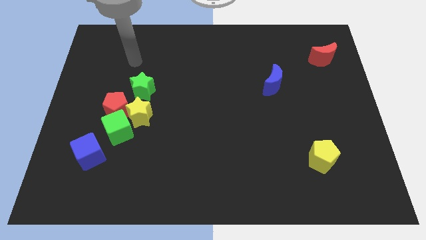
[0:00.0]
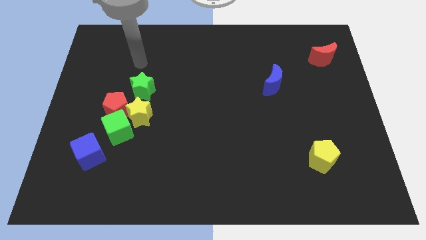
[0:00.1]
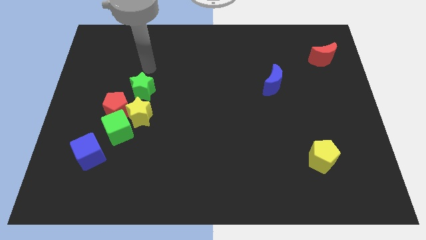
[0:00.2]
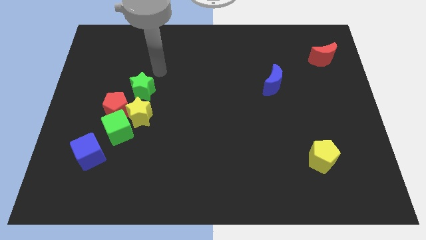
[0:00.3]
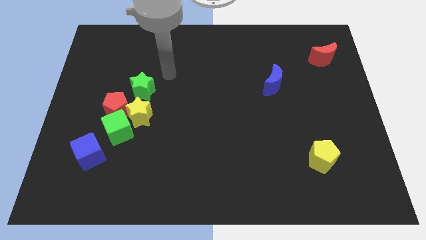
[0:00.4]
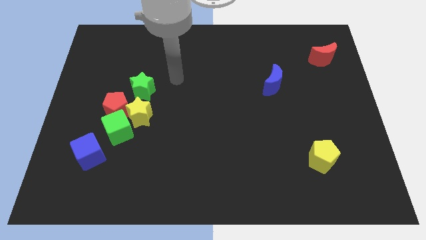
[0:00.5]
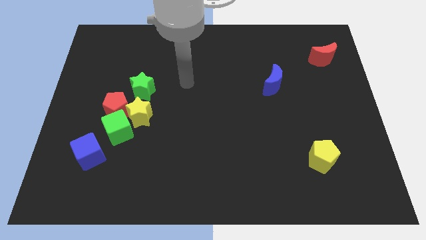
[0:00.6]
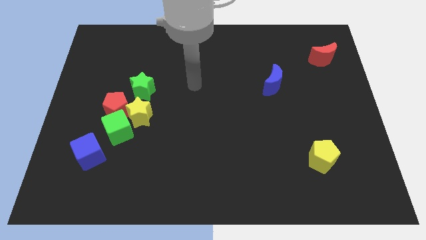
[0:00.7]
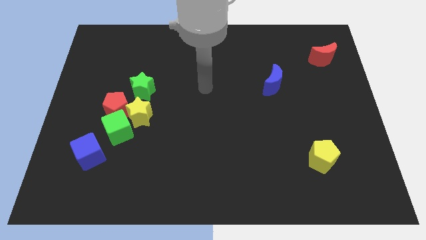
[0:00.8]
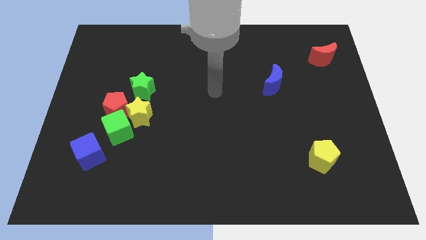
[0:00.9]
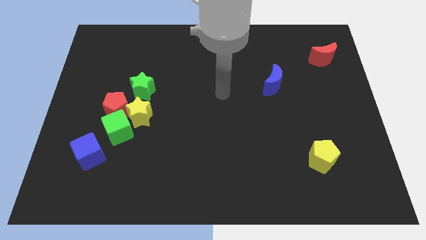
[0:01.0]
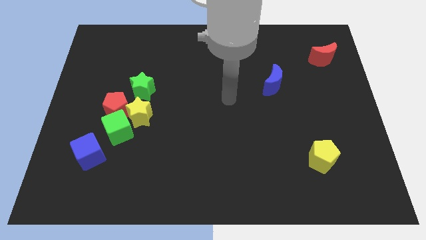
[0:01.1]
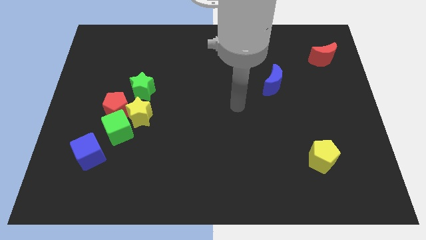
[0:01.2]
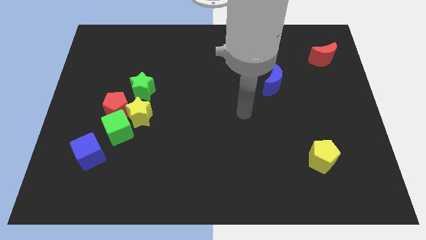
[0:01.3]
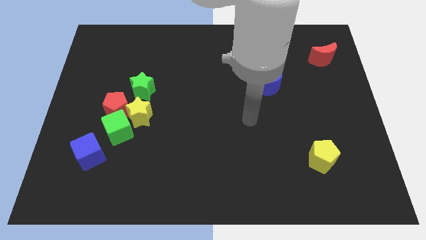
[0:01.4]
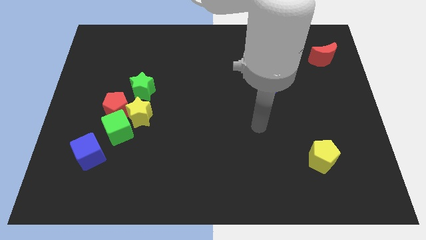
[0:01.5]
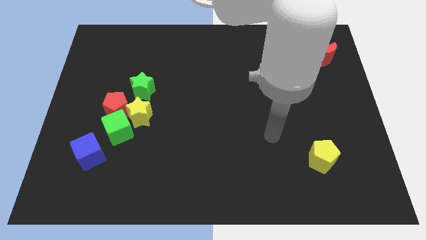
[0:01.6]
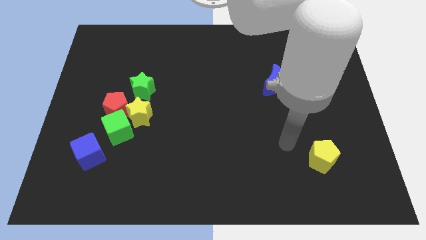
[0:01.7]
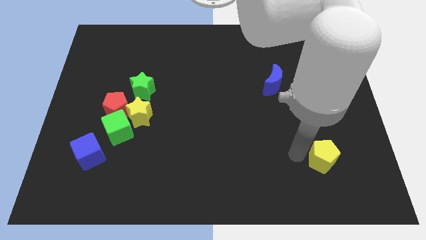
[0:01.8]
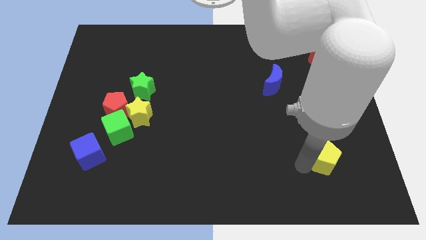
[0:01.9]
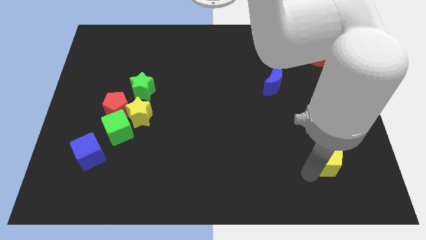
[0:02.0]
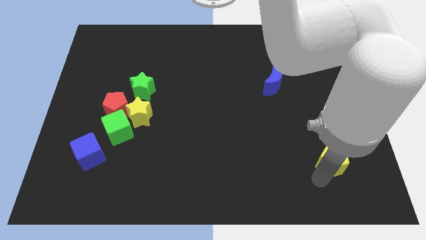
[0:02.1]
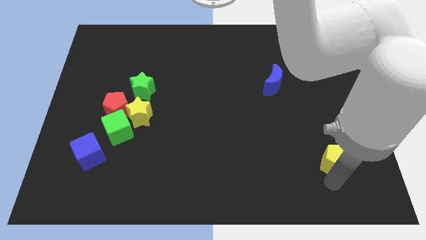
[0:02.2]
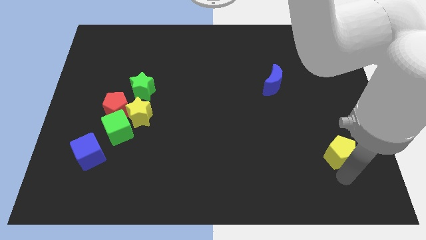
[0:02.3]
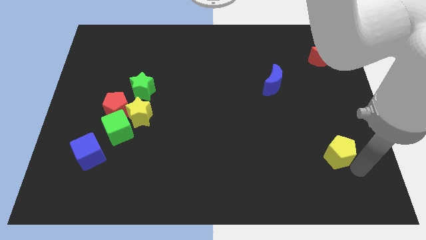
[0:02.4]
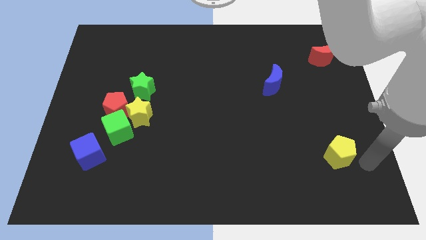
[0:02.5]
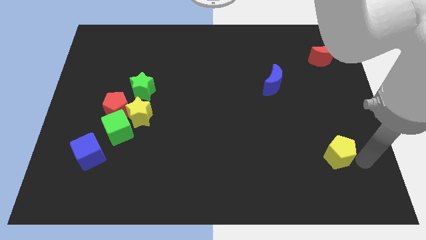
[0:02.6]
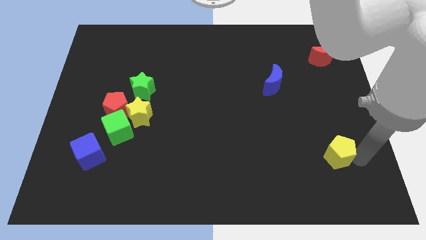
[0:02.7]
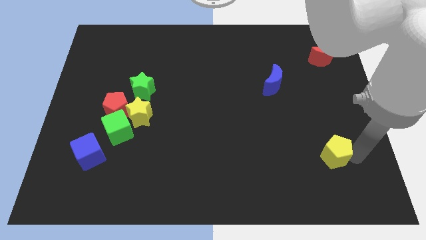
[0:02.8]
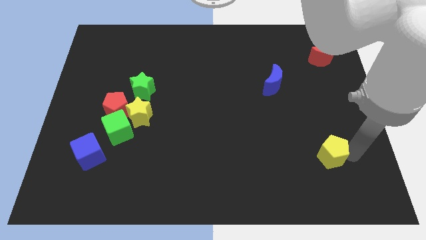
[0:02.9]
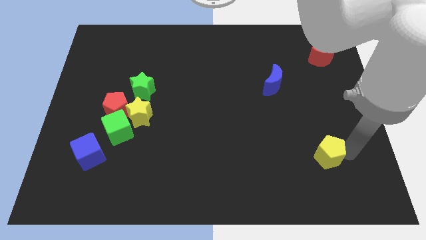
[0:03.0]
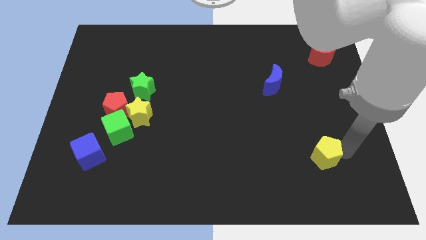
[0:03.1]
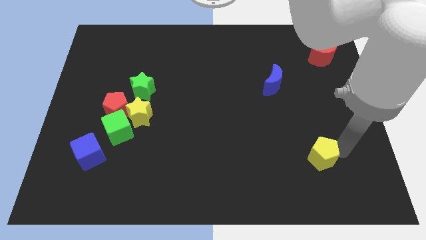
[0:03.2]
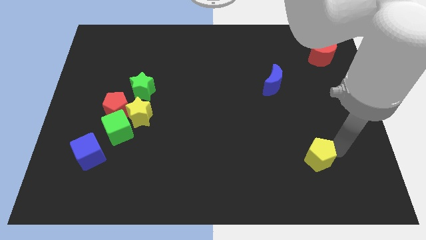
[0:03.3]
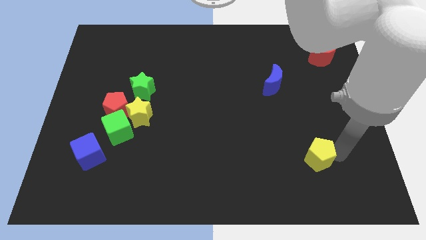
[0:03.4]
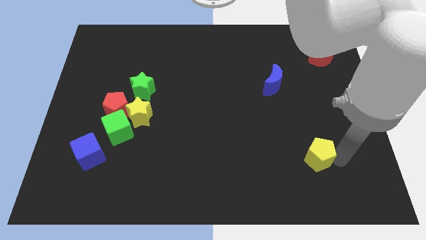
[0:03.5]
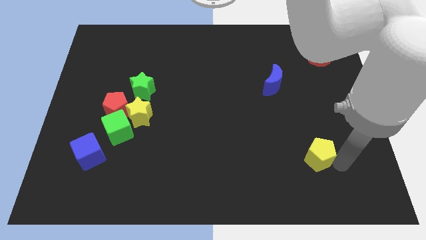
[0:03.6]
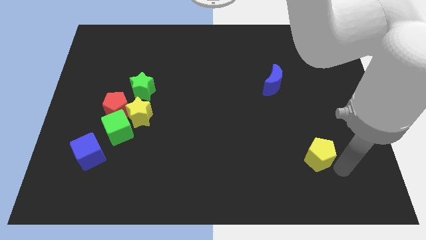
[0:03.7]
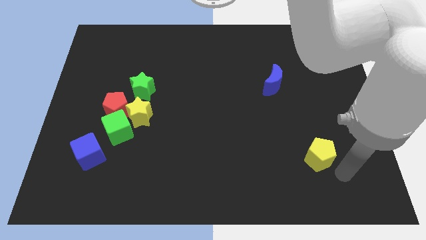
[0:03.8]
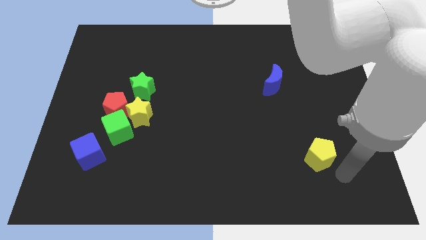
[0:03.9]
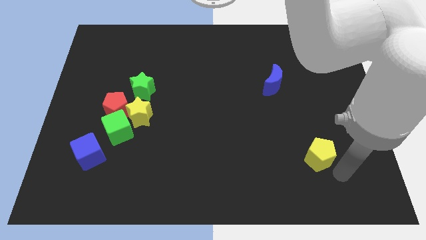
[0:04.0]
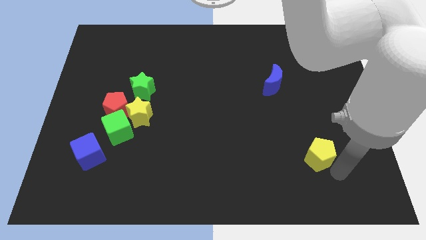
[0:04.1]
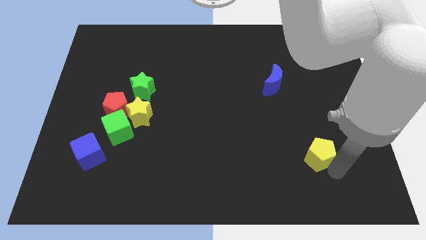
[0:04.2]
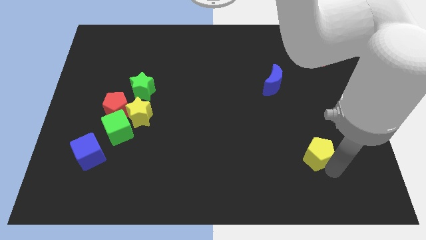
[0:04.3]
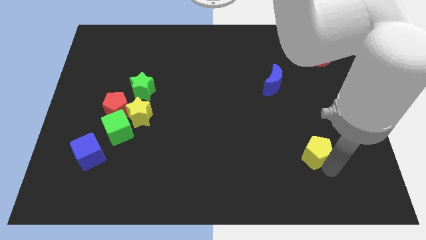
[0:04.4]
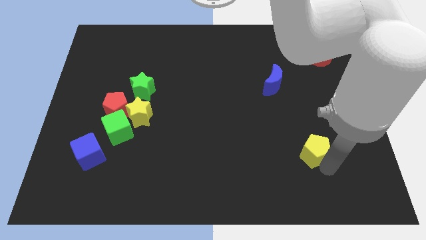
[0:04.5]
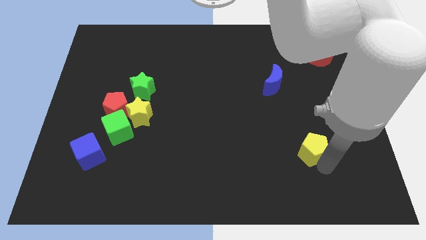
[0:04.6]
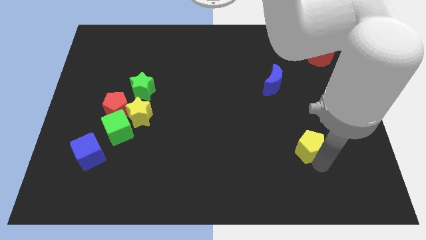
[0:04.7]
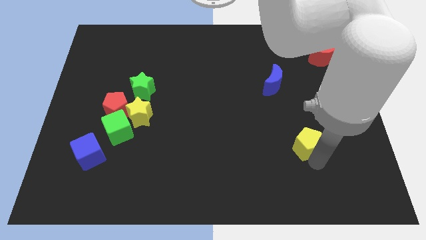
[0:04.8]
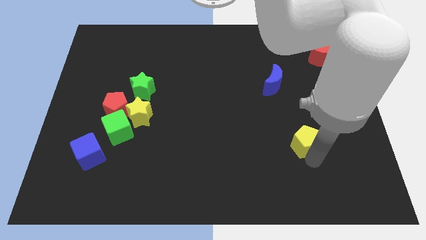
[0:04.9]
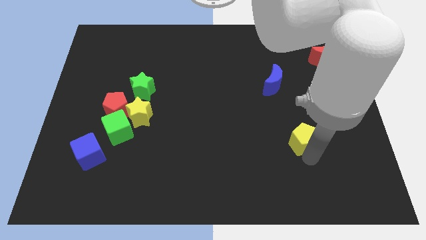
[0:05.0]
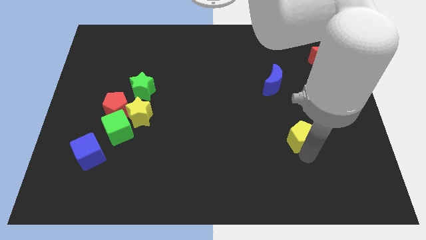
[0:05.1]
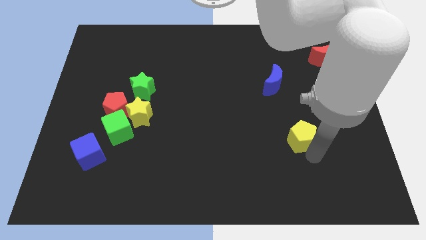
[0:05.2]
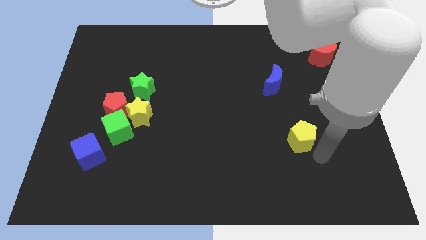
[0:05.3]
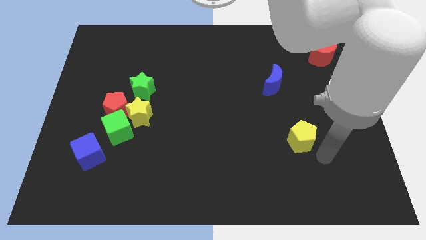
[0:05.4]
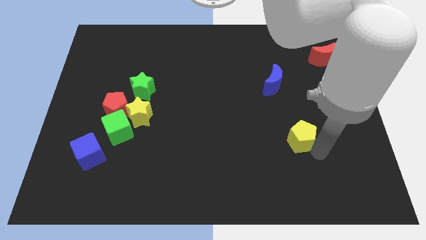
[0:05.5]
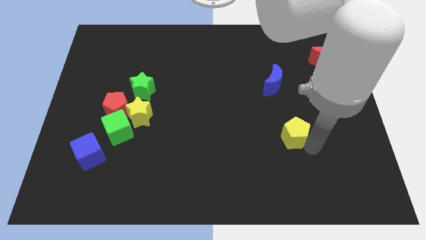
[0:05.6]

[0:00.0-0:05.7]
push the yellow pentagon slightly diagonally up and to the left

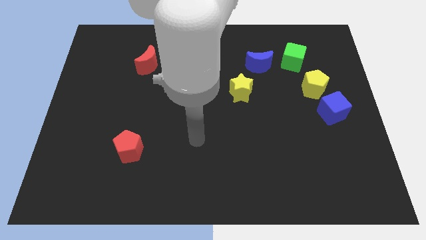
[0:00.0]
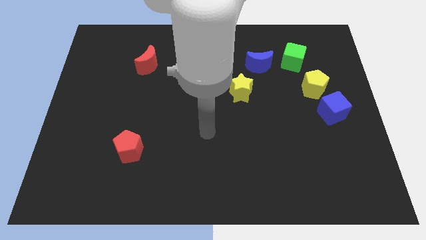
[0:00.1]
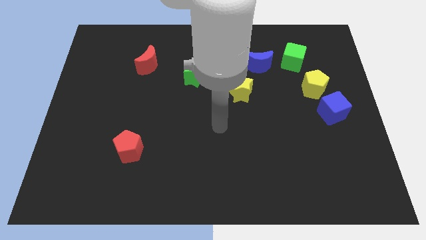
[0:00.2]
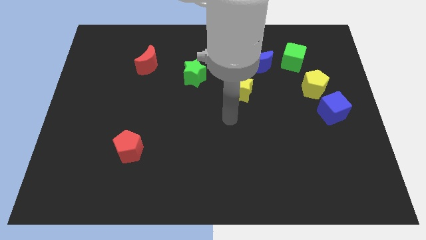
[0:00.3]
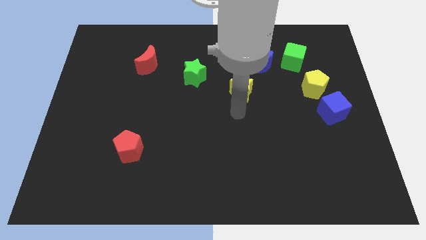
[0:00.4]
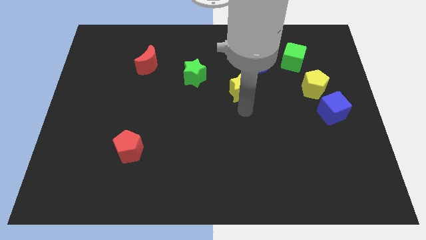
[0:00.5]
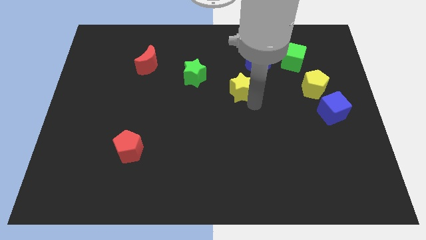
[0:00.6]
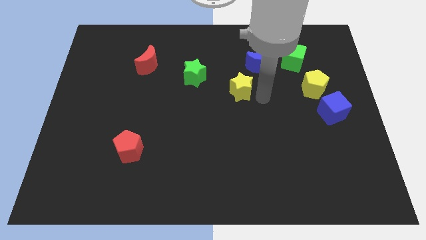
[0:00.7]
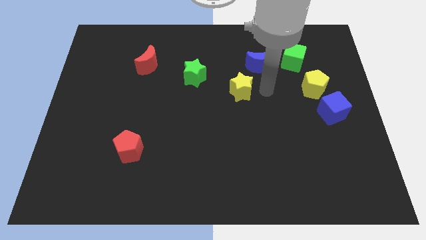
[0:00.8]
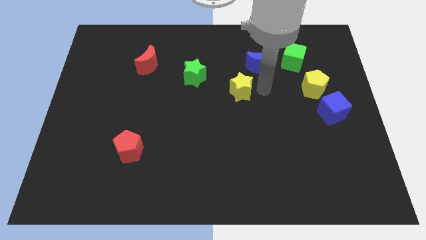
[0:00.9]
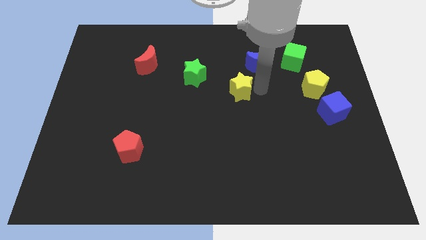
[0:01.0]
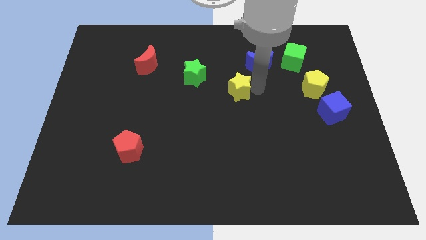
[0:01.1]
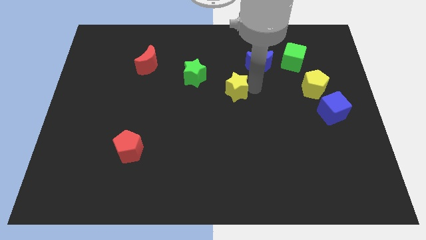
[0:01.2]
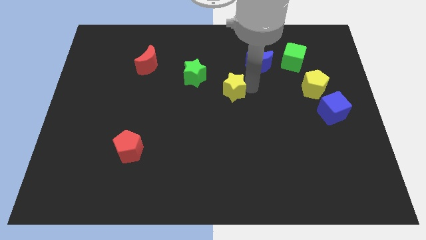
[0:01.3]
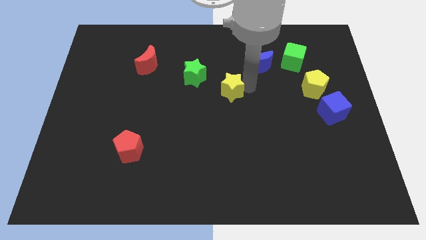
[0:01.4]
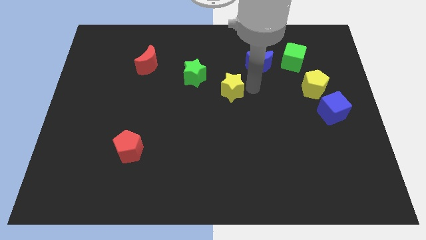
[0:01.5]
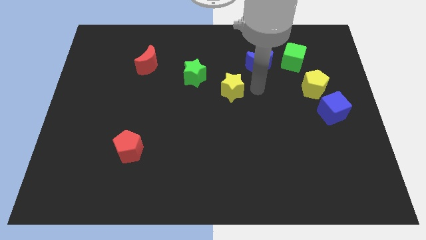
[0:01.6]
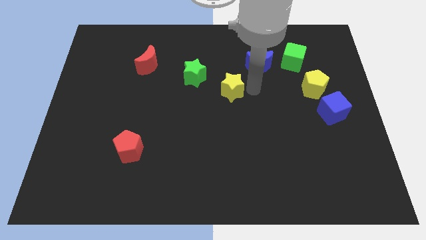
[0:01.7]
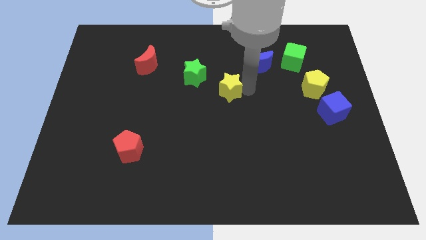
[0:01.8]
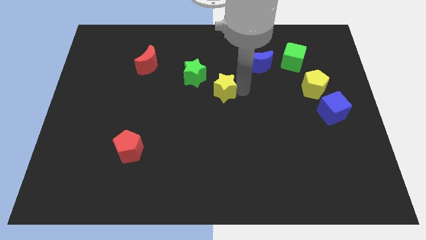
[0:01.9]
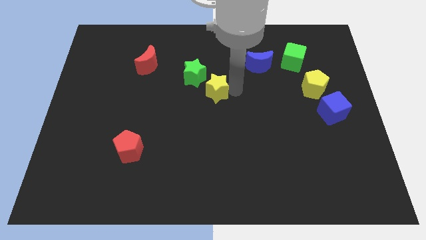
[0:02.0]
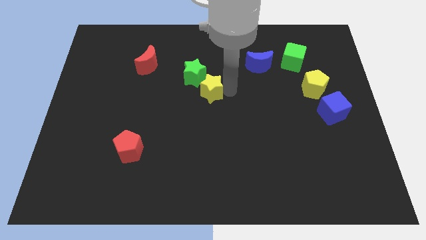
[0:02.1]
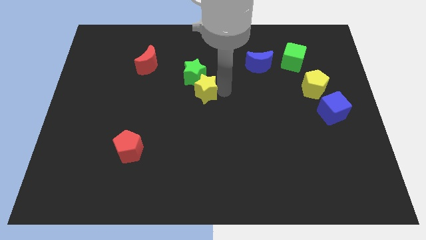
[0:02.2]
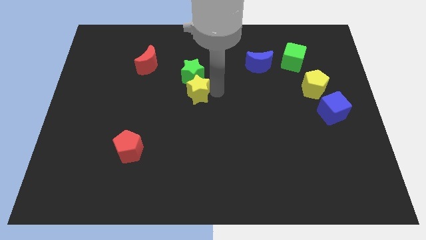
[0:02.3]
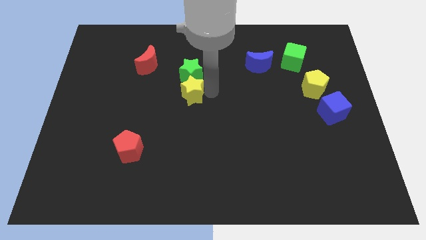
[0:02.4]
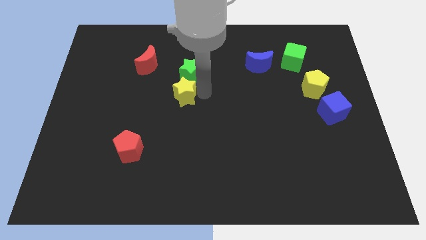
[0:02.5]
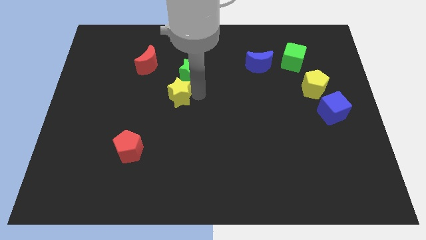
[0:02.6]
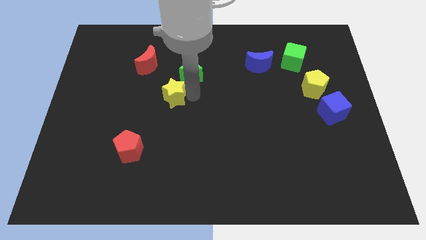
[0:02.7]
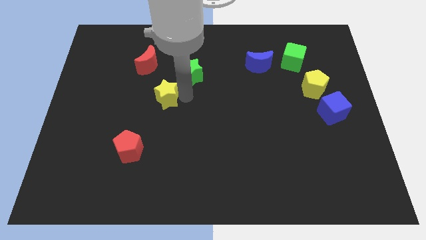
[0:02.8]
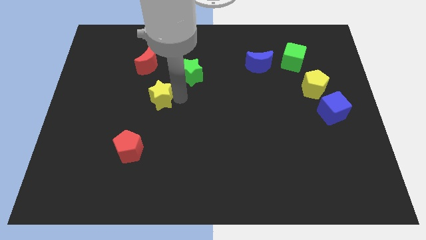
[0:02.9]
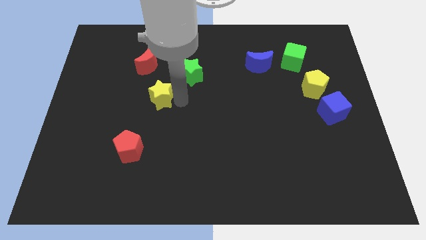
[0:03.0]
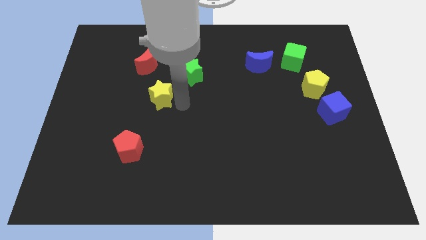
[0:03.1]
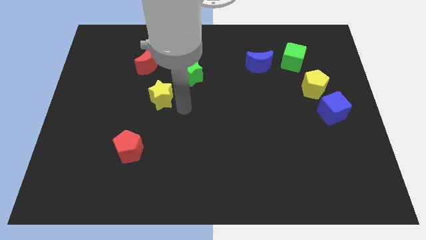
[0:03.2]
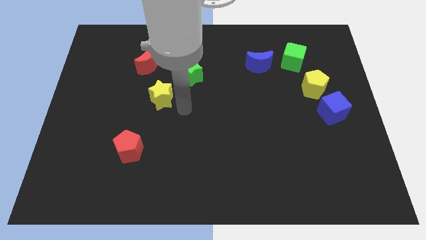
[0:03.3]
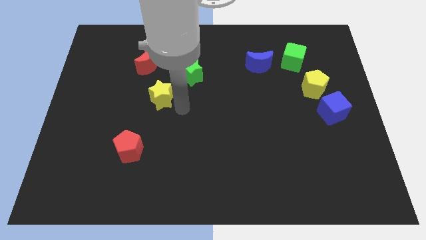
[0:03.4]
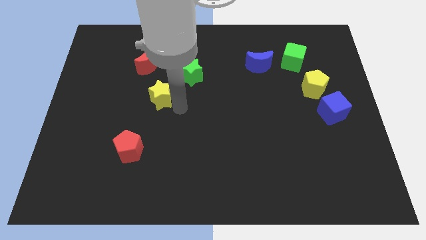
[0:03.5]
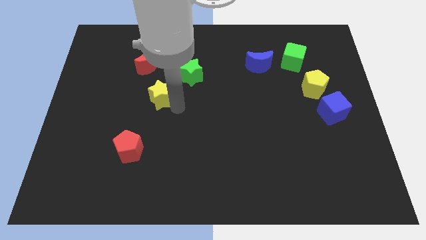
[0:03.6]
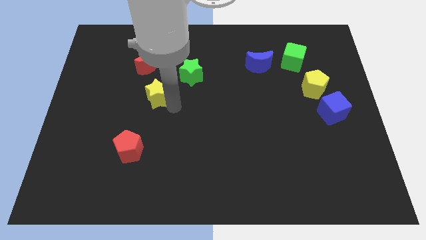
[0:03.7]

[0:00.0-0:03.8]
push the yellow star to the left
